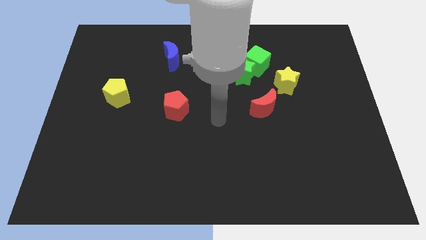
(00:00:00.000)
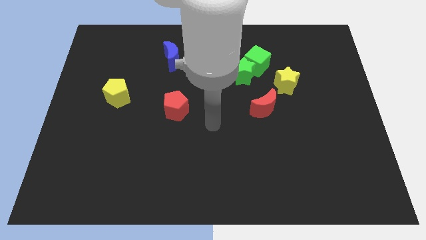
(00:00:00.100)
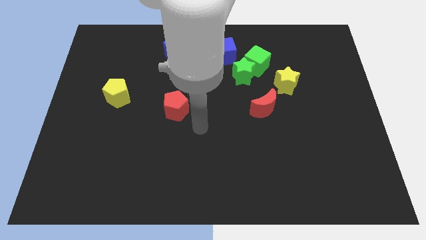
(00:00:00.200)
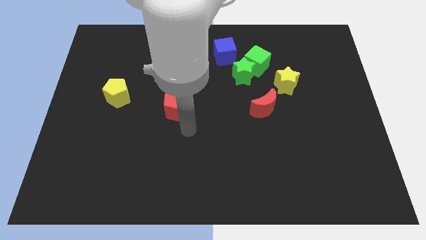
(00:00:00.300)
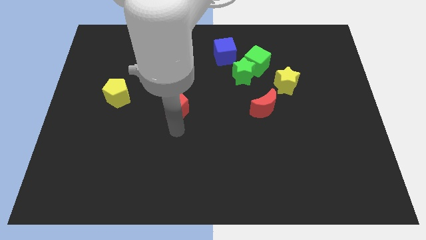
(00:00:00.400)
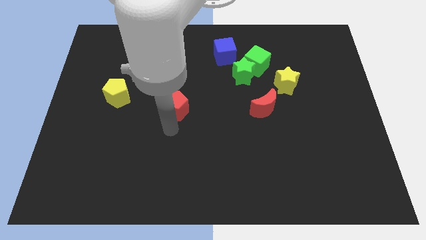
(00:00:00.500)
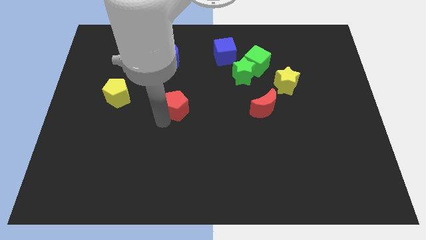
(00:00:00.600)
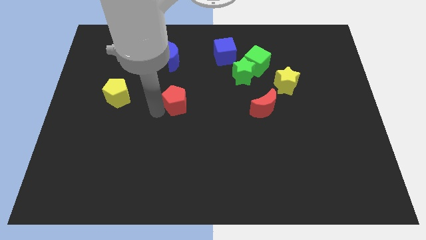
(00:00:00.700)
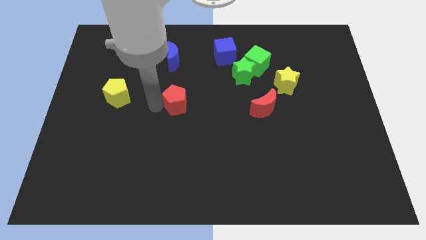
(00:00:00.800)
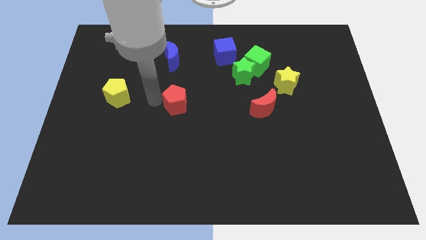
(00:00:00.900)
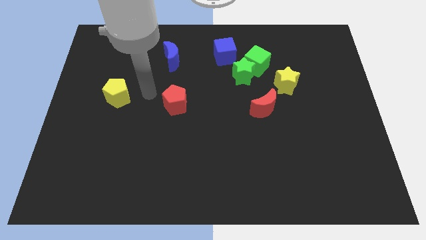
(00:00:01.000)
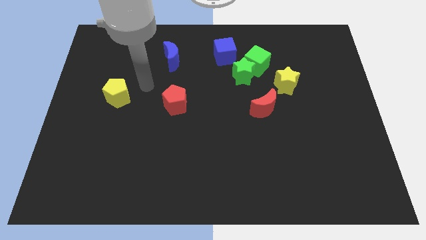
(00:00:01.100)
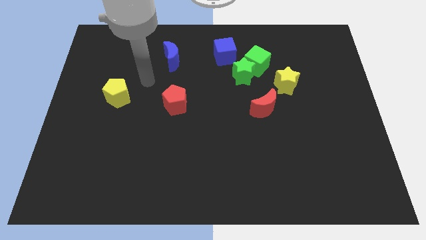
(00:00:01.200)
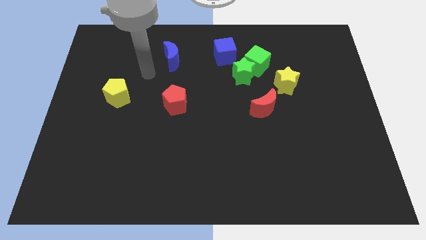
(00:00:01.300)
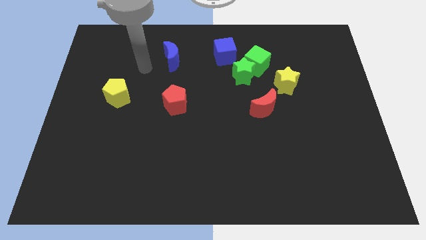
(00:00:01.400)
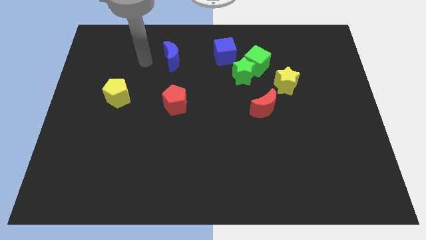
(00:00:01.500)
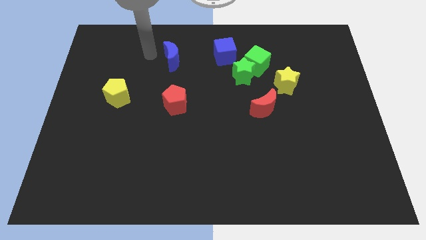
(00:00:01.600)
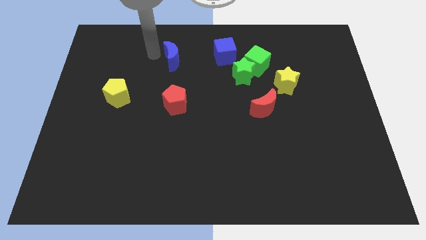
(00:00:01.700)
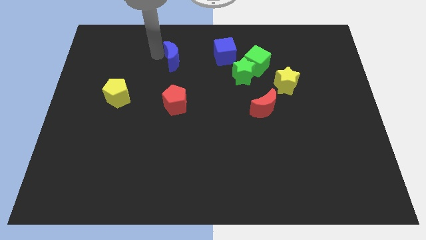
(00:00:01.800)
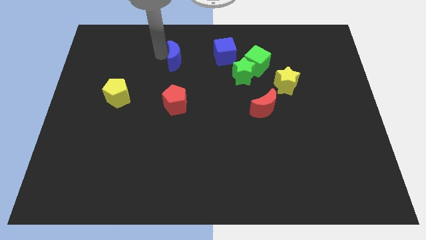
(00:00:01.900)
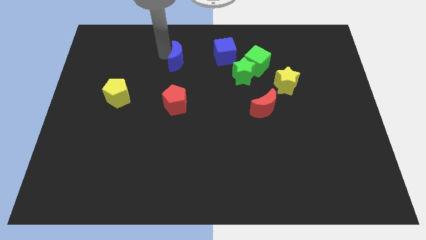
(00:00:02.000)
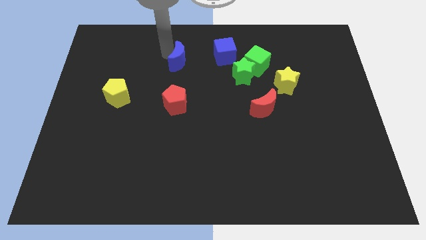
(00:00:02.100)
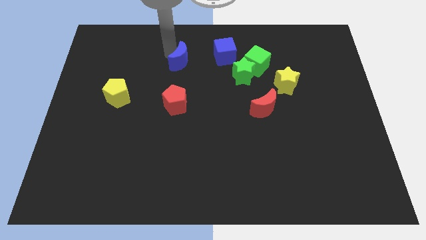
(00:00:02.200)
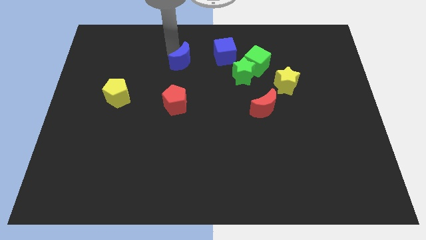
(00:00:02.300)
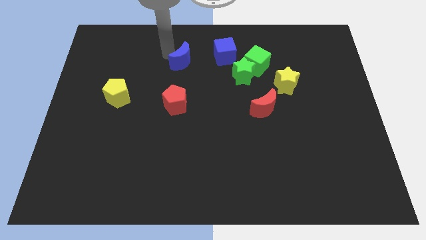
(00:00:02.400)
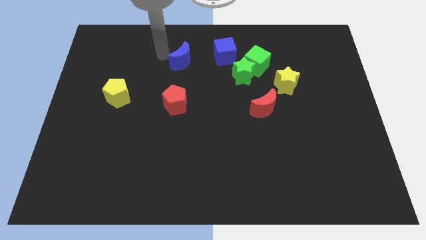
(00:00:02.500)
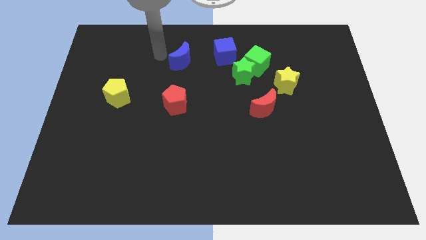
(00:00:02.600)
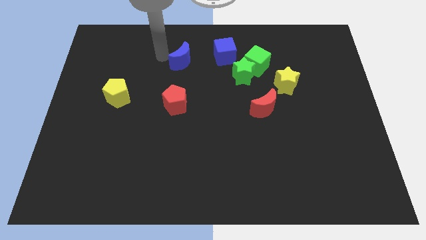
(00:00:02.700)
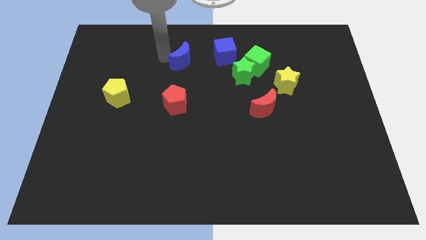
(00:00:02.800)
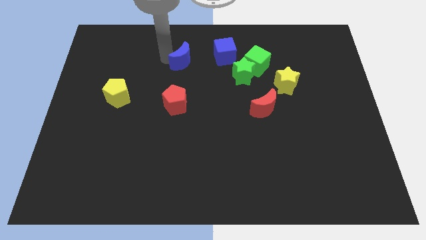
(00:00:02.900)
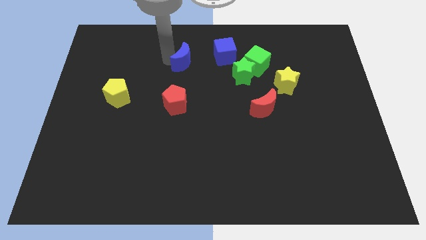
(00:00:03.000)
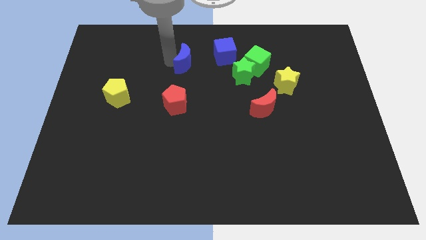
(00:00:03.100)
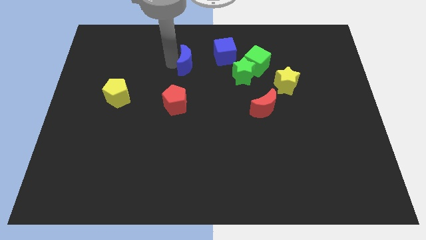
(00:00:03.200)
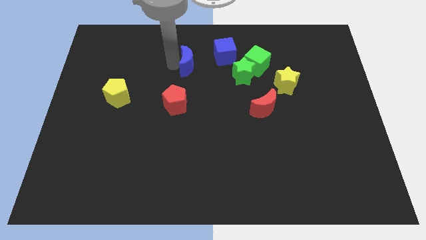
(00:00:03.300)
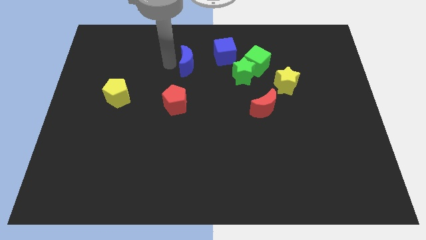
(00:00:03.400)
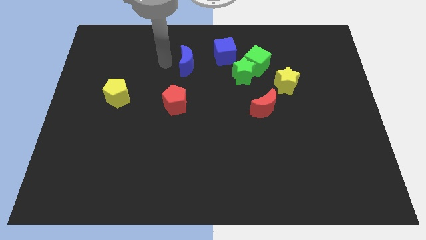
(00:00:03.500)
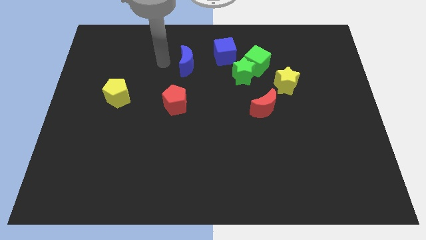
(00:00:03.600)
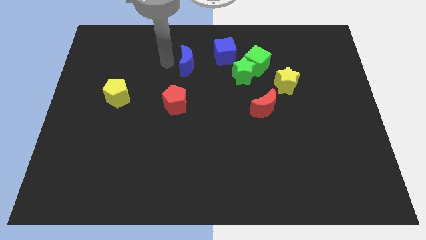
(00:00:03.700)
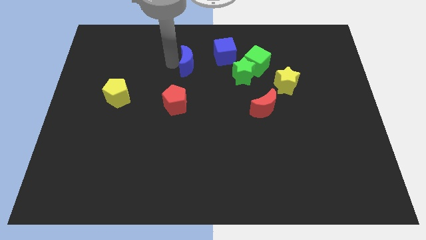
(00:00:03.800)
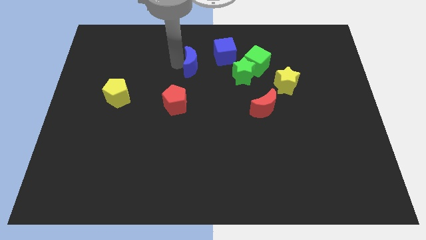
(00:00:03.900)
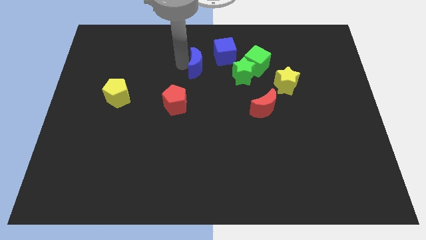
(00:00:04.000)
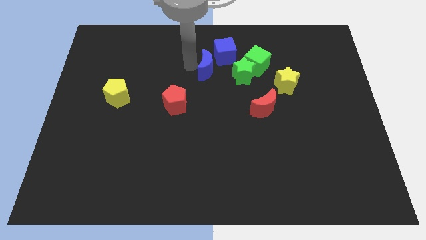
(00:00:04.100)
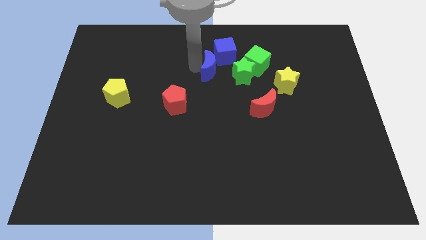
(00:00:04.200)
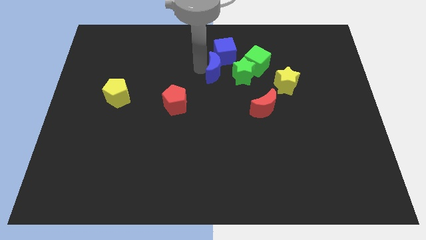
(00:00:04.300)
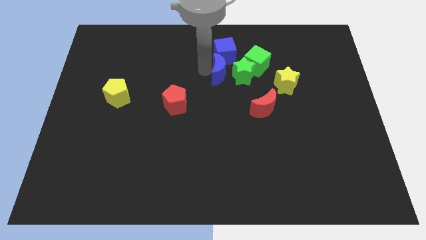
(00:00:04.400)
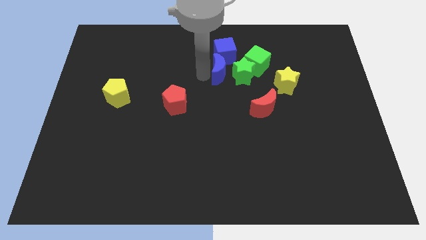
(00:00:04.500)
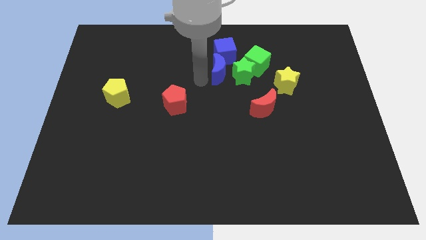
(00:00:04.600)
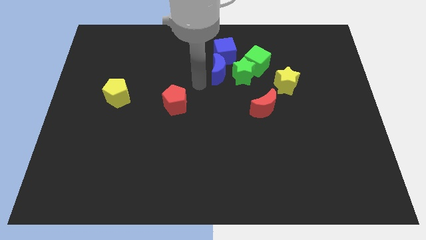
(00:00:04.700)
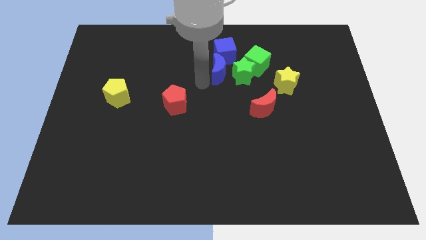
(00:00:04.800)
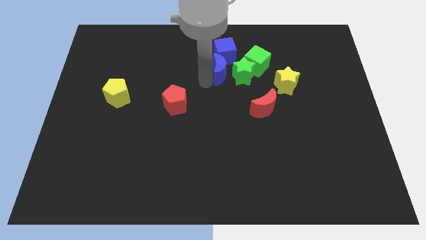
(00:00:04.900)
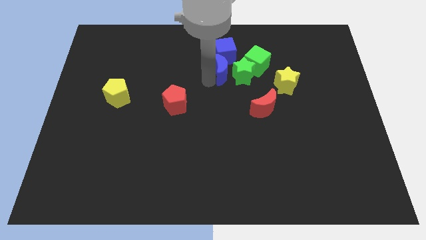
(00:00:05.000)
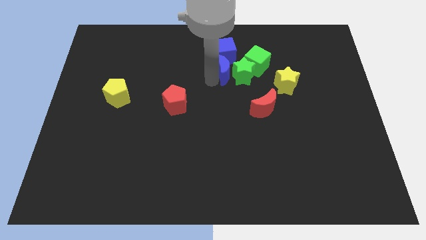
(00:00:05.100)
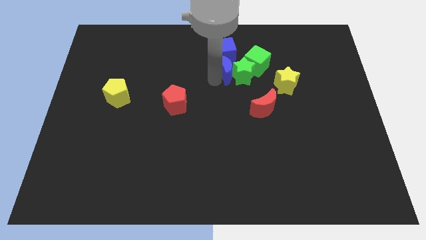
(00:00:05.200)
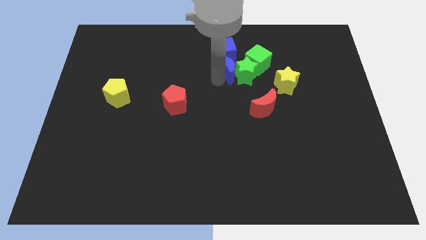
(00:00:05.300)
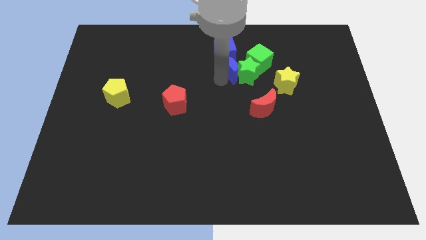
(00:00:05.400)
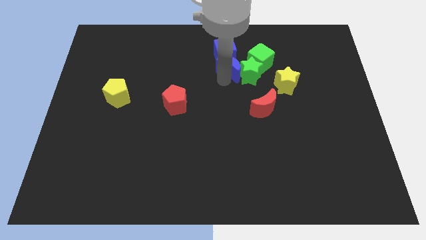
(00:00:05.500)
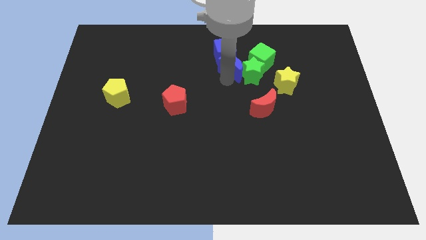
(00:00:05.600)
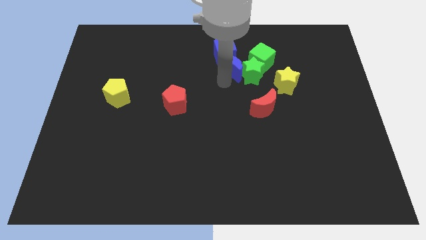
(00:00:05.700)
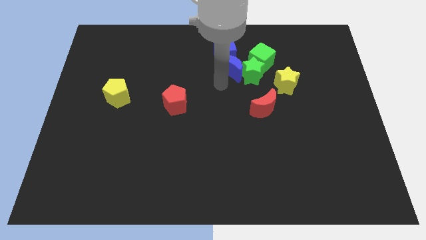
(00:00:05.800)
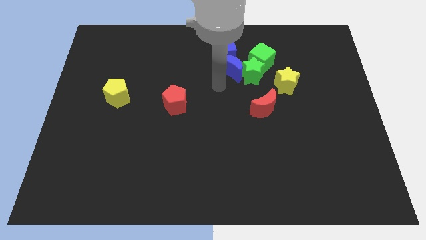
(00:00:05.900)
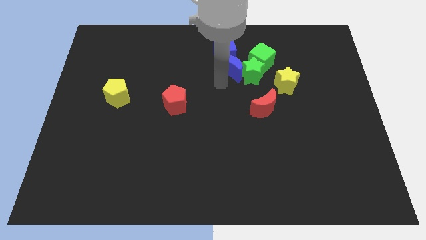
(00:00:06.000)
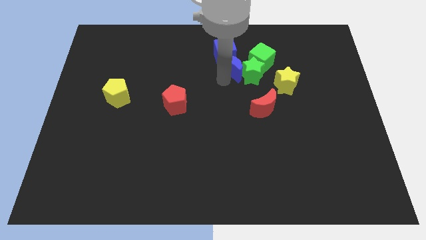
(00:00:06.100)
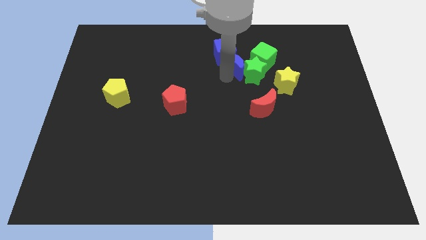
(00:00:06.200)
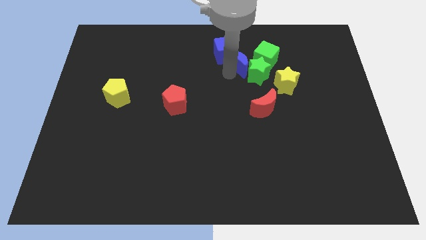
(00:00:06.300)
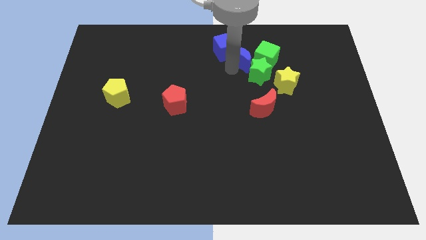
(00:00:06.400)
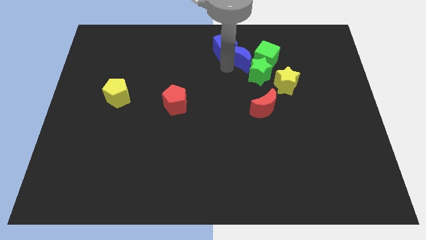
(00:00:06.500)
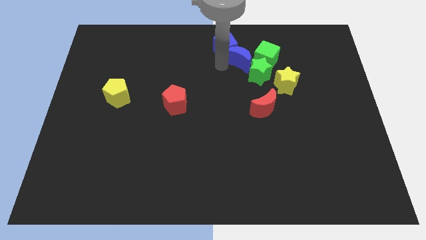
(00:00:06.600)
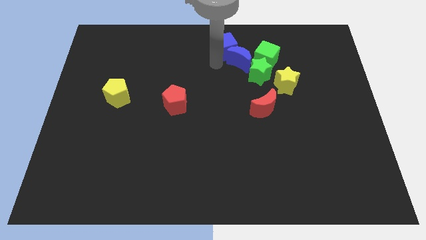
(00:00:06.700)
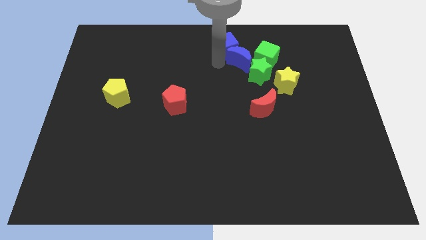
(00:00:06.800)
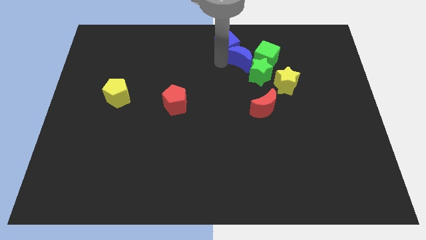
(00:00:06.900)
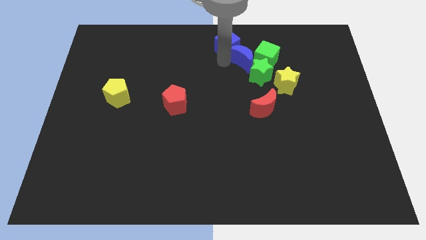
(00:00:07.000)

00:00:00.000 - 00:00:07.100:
move the blue moon close to the green cube
